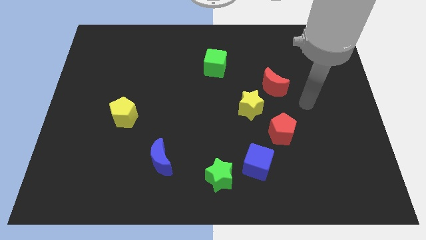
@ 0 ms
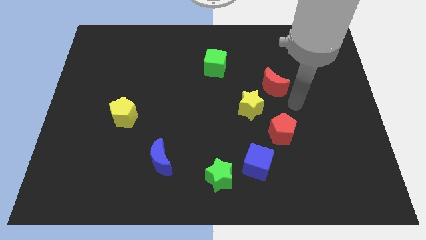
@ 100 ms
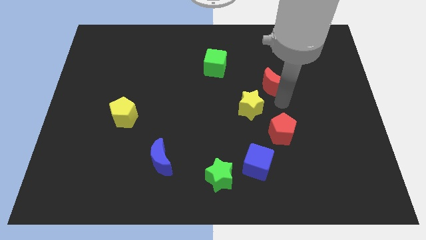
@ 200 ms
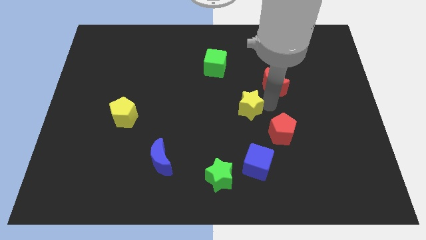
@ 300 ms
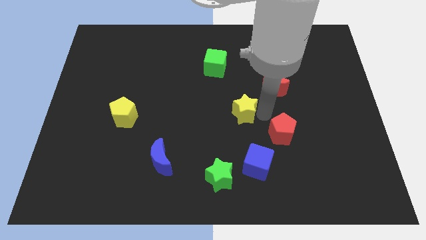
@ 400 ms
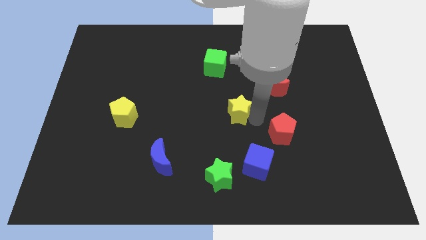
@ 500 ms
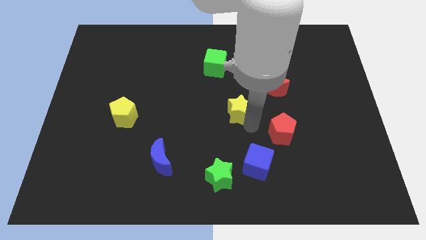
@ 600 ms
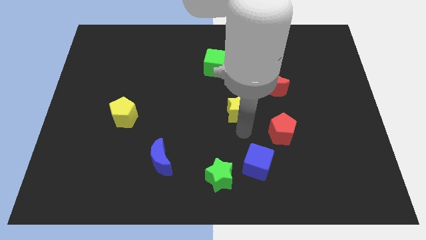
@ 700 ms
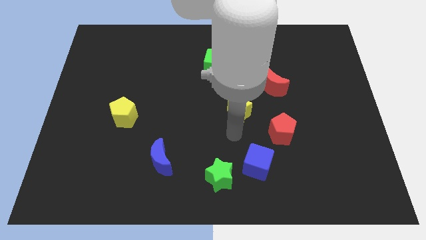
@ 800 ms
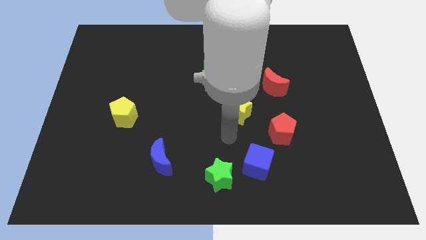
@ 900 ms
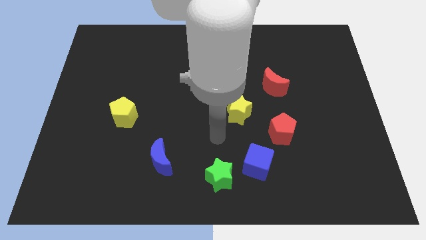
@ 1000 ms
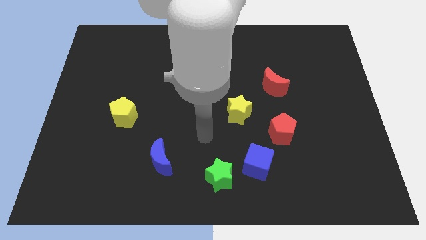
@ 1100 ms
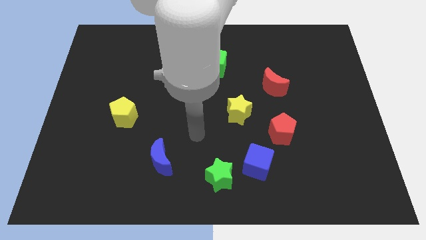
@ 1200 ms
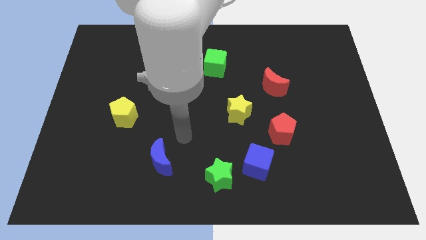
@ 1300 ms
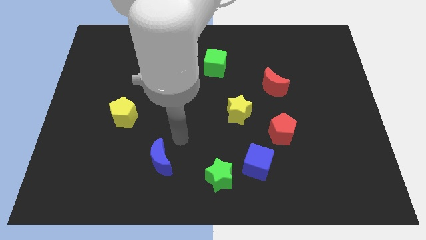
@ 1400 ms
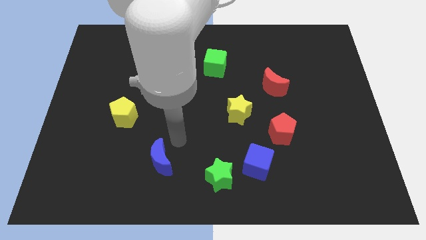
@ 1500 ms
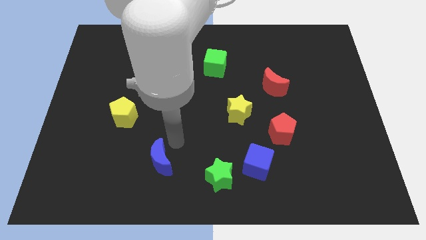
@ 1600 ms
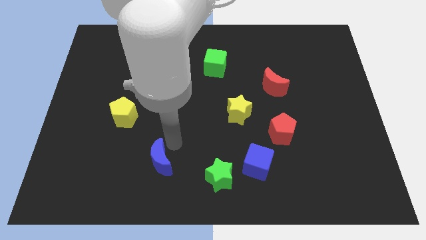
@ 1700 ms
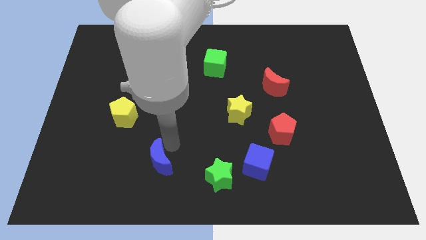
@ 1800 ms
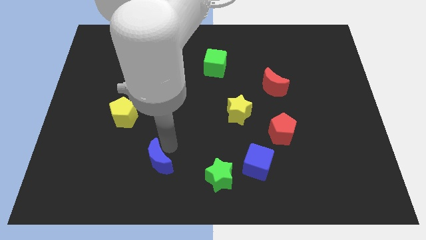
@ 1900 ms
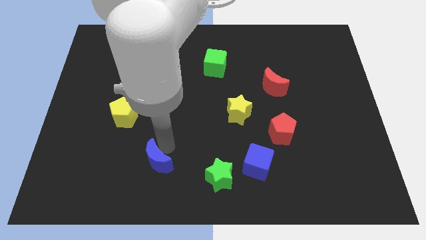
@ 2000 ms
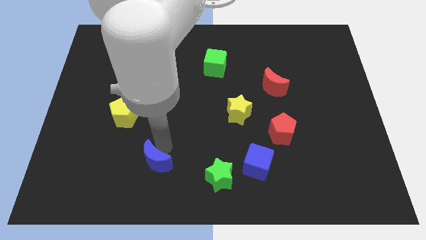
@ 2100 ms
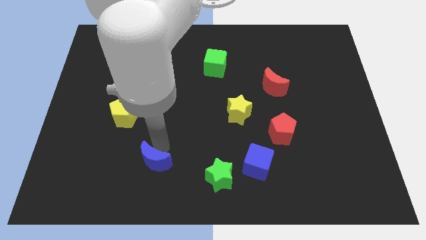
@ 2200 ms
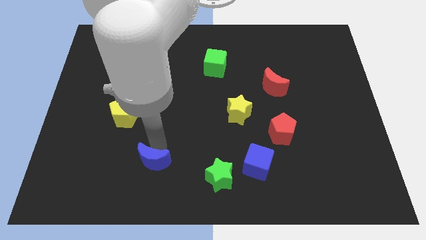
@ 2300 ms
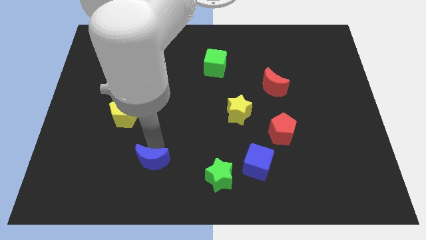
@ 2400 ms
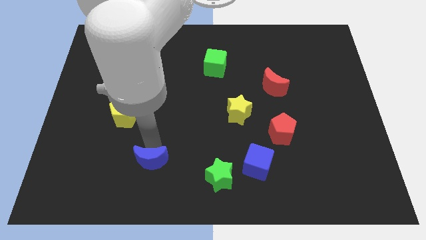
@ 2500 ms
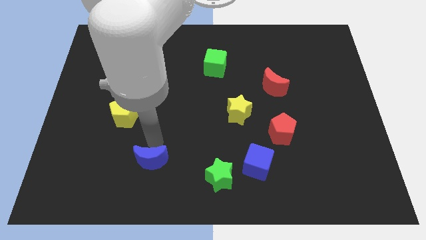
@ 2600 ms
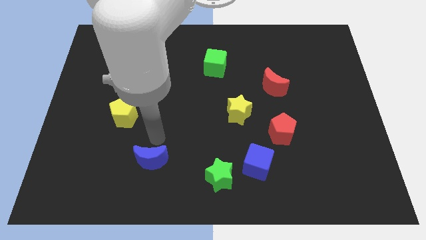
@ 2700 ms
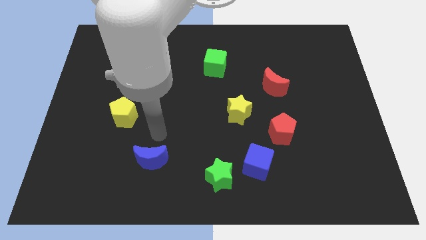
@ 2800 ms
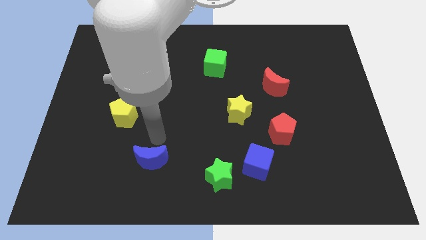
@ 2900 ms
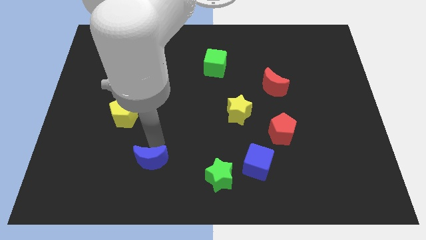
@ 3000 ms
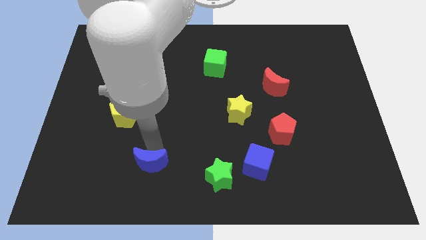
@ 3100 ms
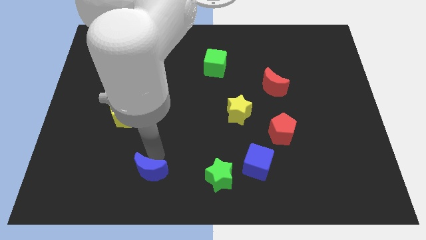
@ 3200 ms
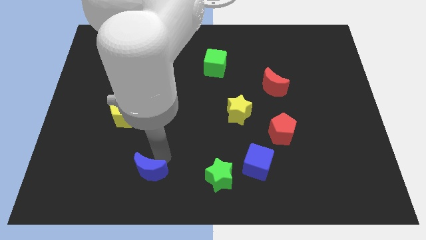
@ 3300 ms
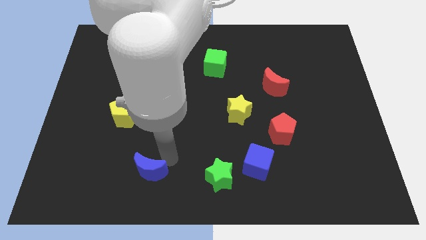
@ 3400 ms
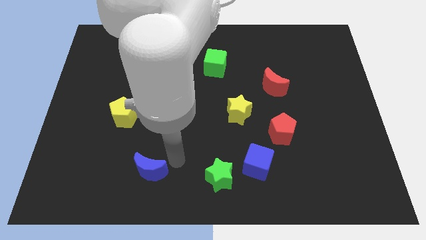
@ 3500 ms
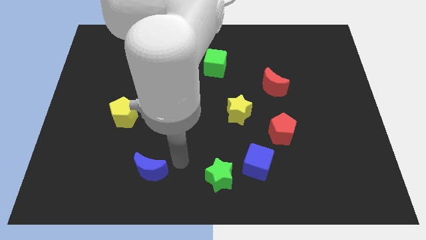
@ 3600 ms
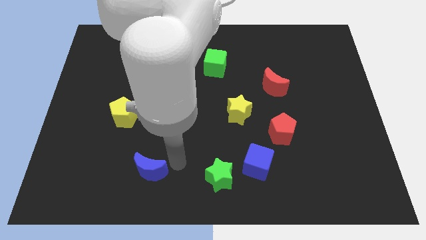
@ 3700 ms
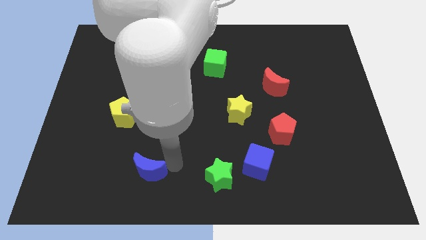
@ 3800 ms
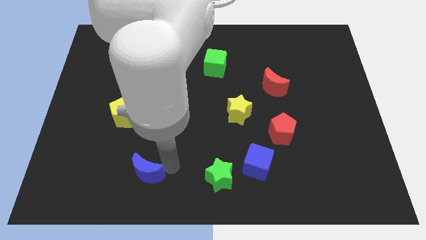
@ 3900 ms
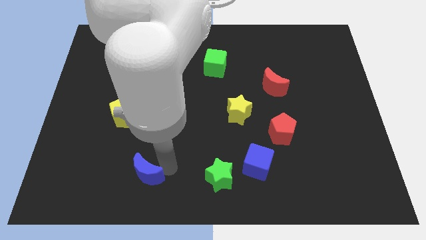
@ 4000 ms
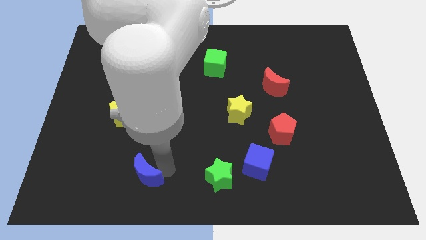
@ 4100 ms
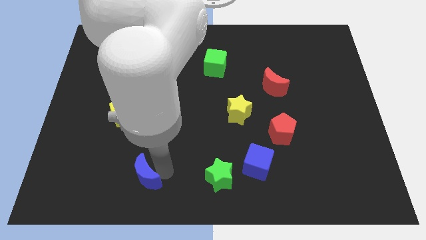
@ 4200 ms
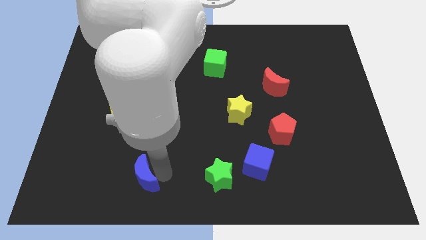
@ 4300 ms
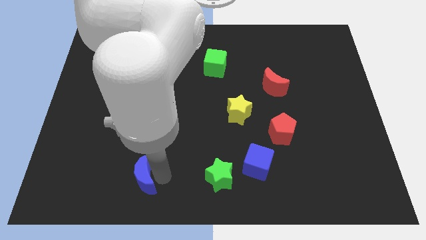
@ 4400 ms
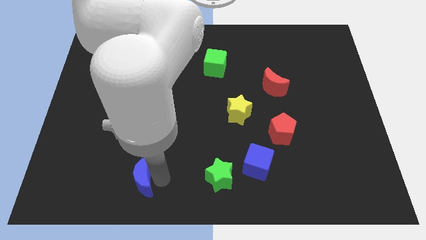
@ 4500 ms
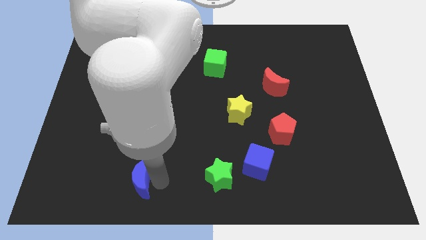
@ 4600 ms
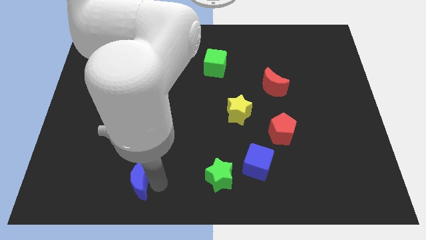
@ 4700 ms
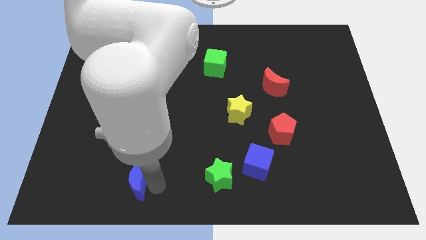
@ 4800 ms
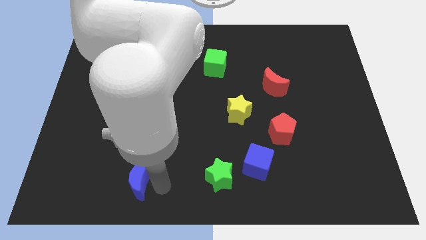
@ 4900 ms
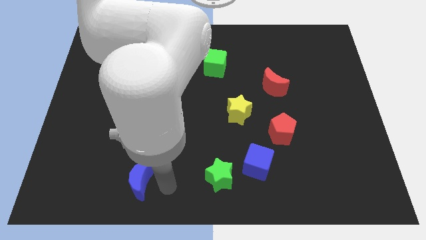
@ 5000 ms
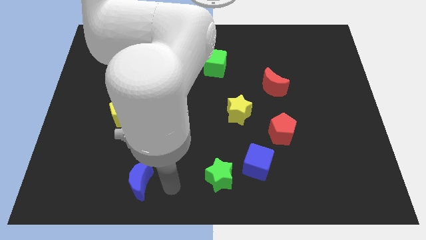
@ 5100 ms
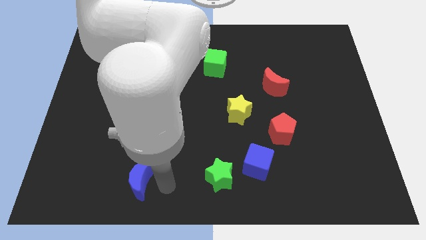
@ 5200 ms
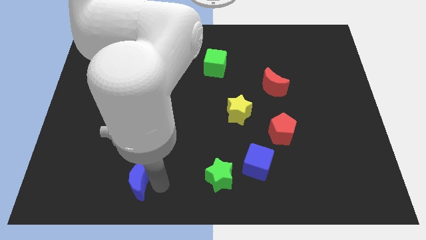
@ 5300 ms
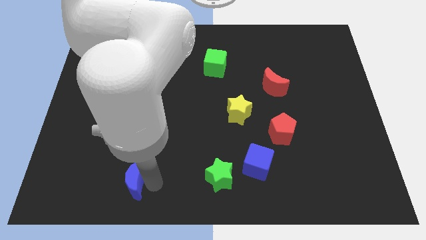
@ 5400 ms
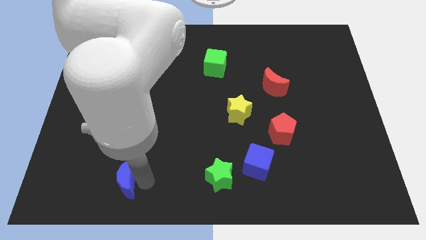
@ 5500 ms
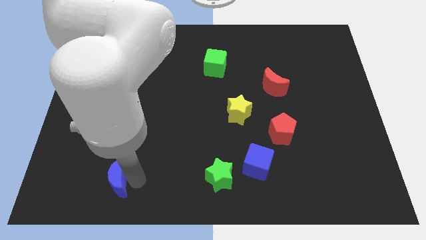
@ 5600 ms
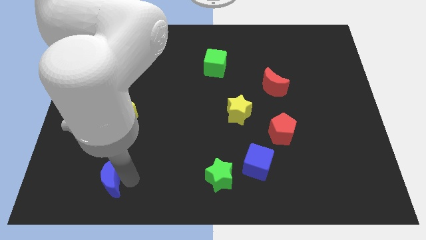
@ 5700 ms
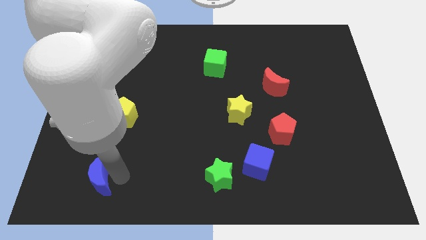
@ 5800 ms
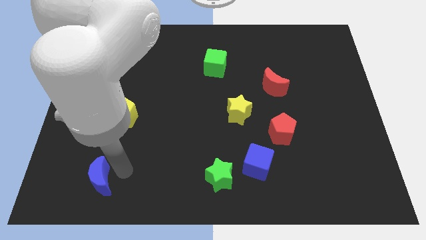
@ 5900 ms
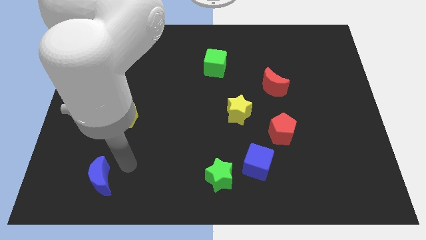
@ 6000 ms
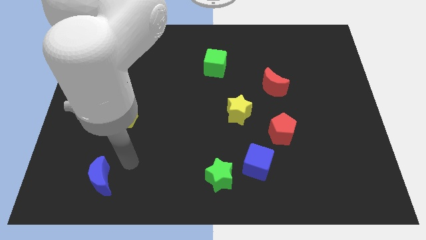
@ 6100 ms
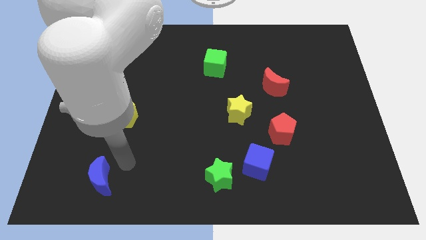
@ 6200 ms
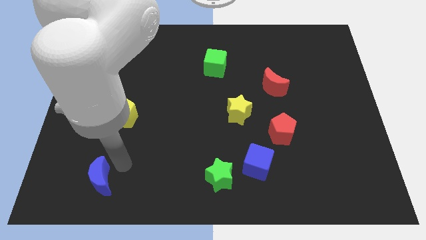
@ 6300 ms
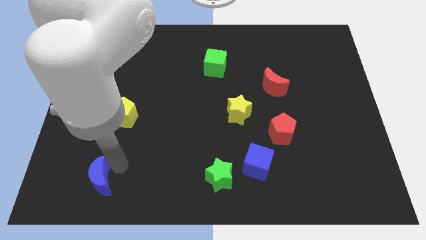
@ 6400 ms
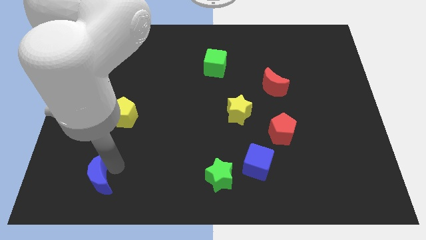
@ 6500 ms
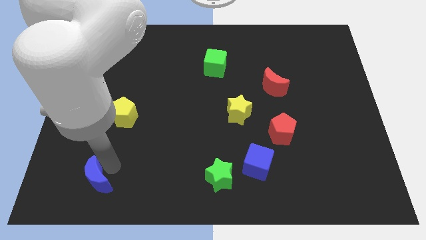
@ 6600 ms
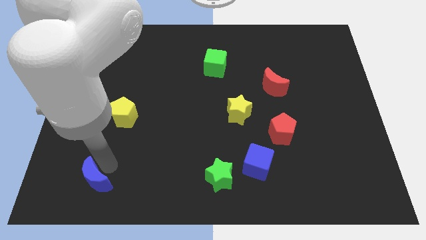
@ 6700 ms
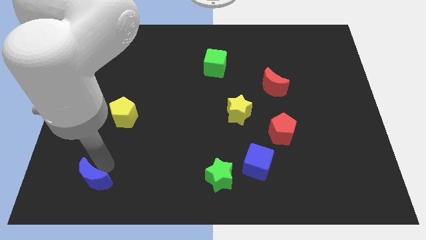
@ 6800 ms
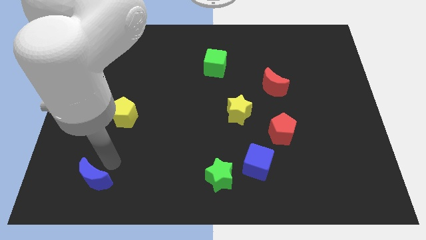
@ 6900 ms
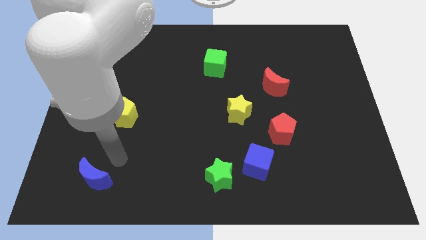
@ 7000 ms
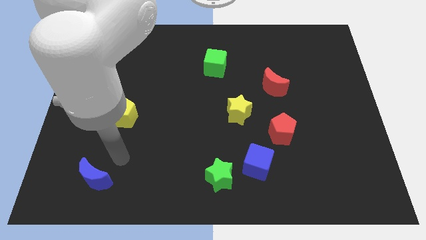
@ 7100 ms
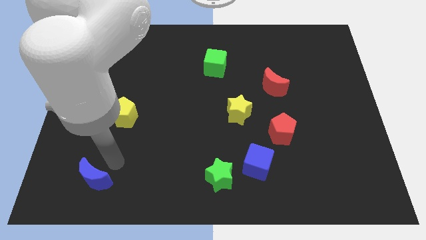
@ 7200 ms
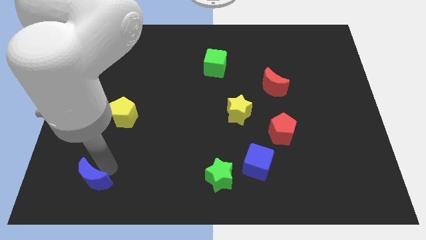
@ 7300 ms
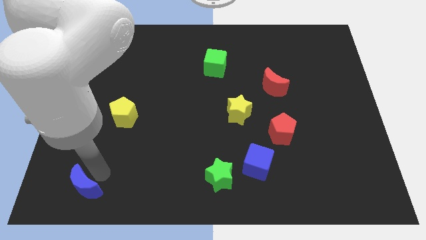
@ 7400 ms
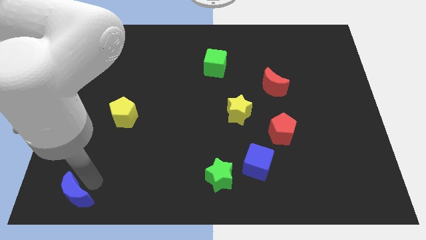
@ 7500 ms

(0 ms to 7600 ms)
slide the blue moon to the bottom left corner
